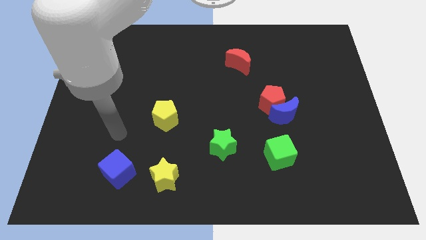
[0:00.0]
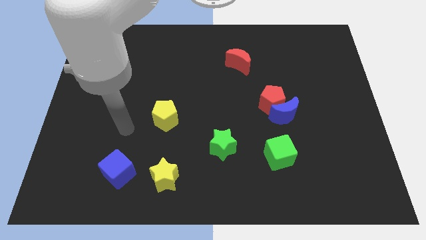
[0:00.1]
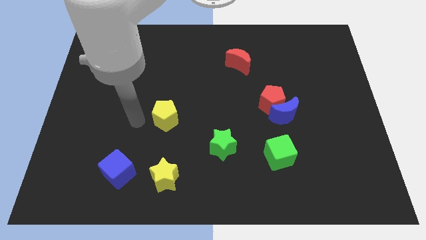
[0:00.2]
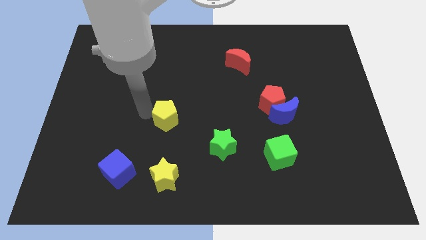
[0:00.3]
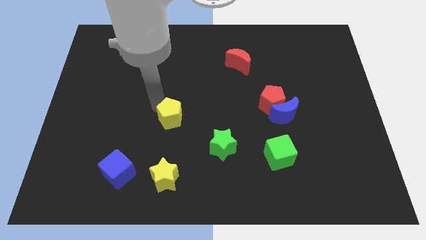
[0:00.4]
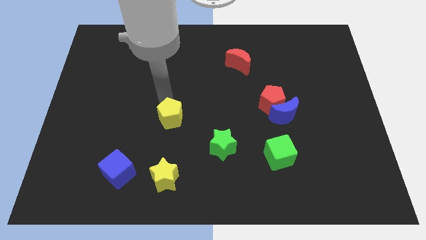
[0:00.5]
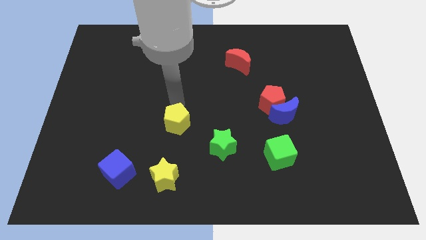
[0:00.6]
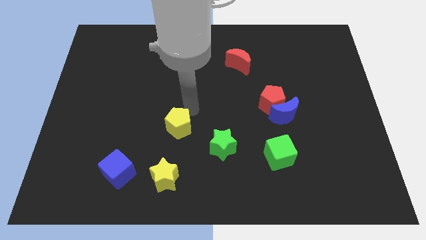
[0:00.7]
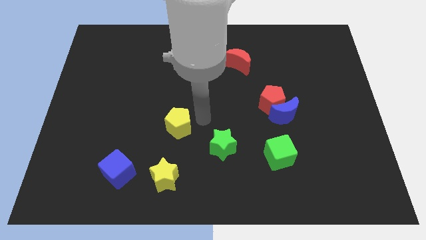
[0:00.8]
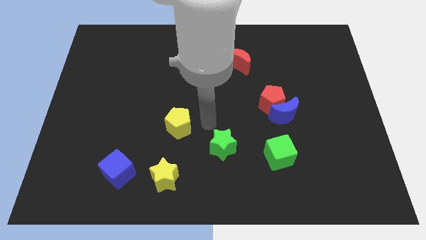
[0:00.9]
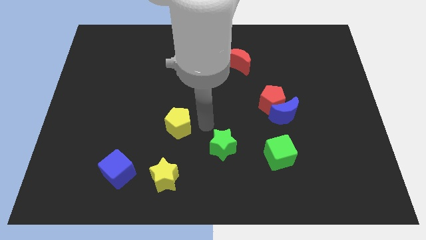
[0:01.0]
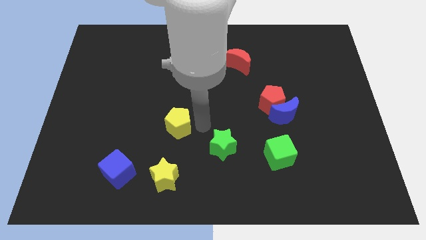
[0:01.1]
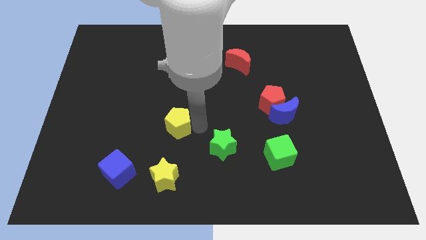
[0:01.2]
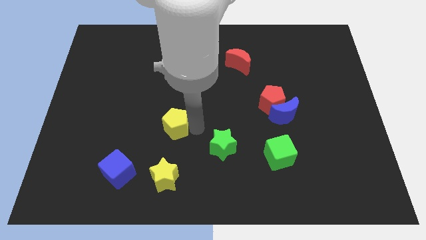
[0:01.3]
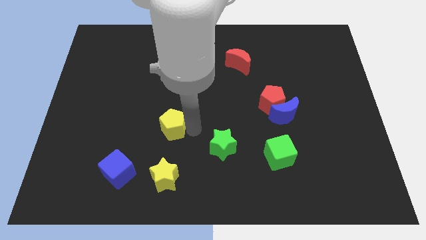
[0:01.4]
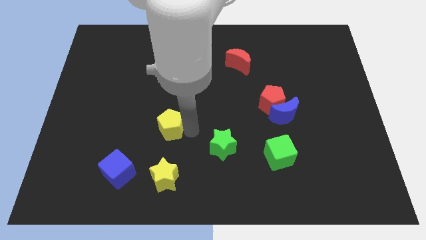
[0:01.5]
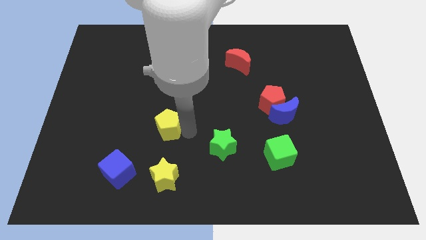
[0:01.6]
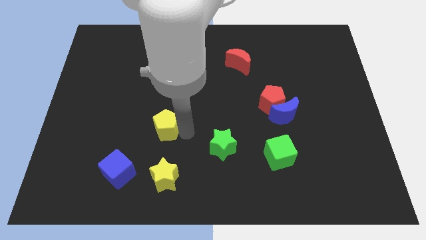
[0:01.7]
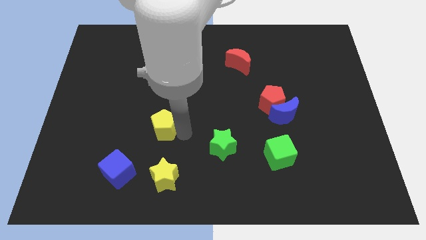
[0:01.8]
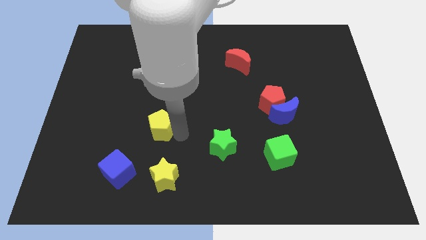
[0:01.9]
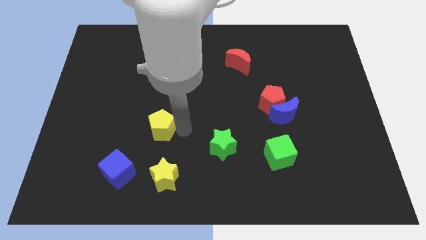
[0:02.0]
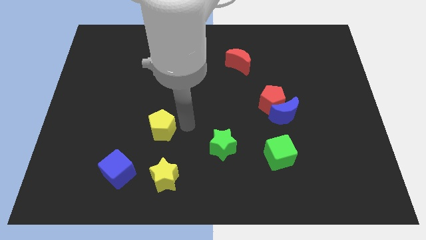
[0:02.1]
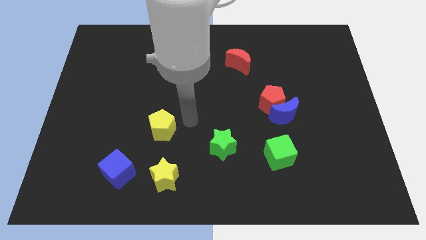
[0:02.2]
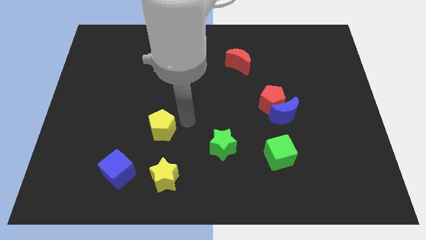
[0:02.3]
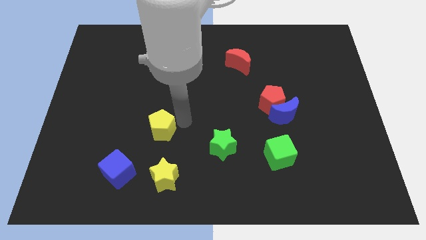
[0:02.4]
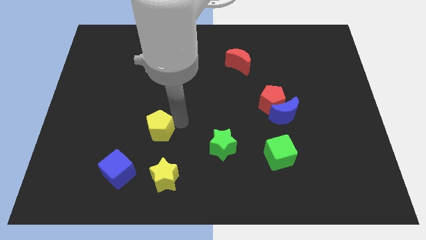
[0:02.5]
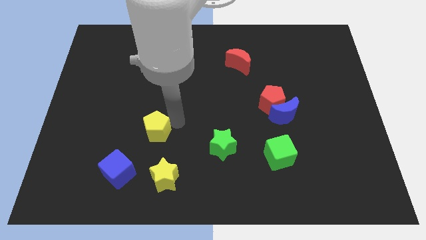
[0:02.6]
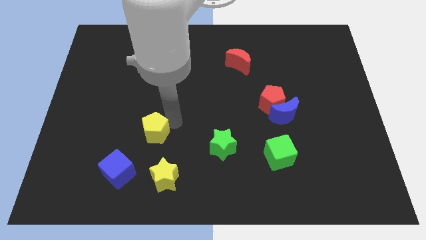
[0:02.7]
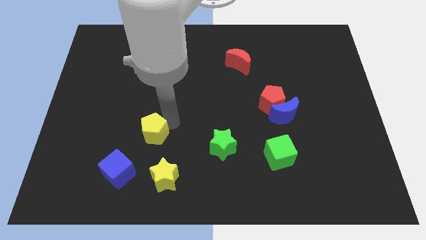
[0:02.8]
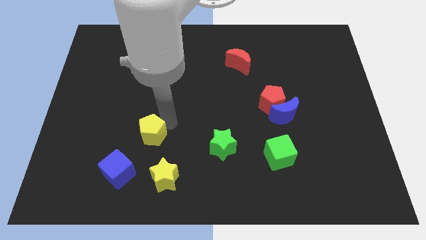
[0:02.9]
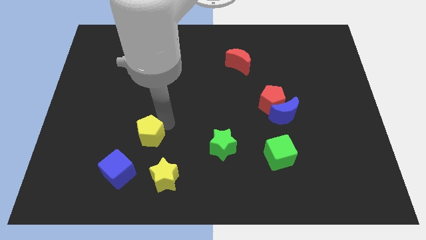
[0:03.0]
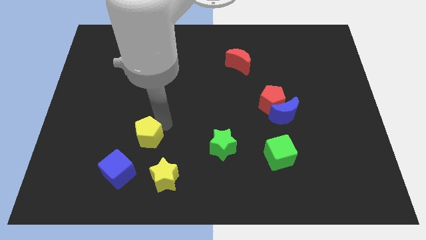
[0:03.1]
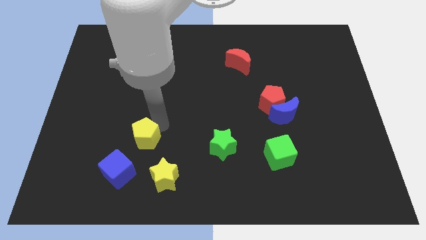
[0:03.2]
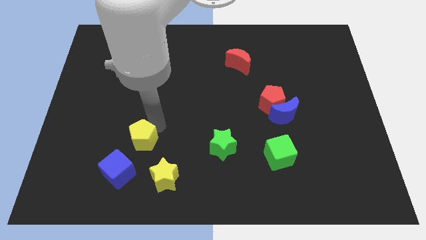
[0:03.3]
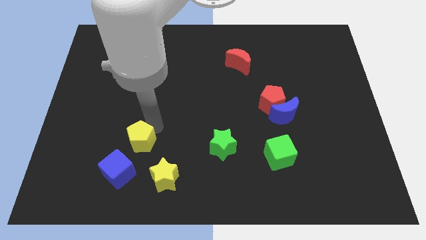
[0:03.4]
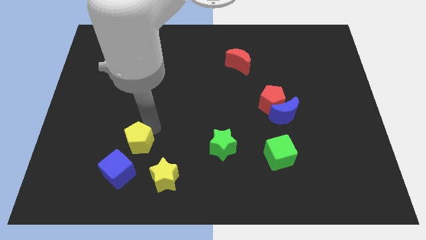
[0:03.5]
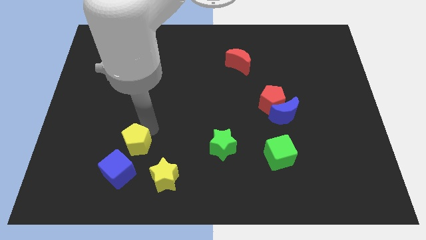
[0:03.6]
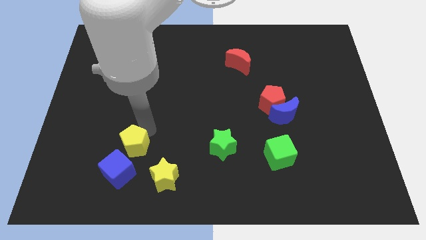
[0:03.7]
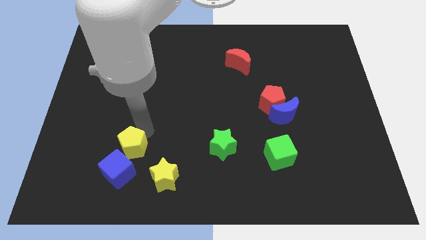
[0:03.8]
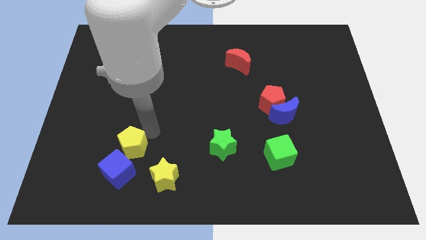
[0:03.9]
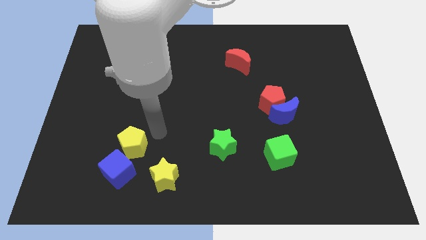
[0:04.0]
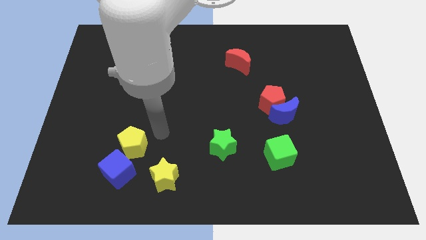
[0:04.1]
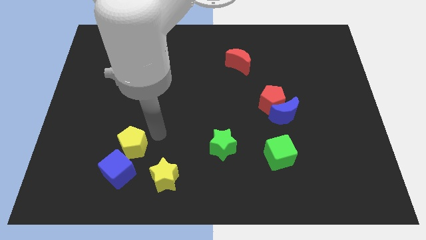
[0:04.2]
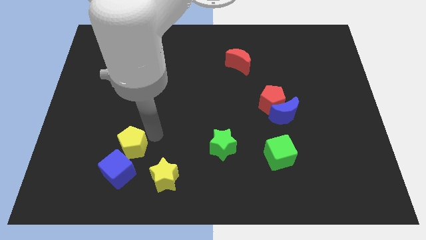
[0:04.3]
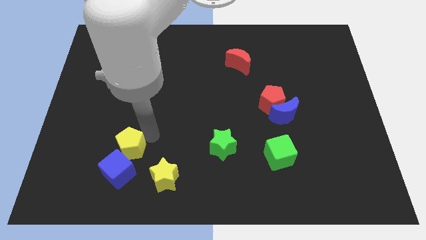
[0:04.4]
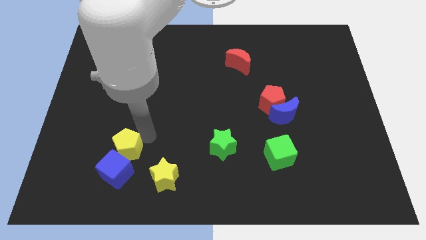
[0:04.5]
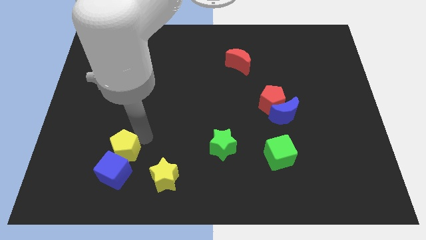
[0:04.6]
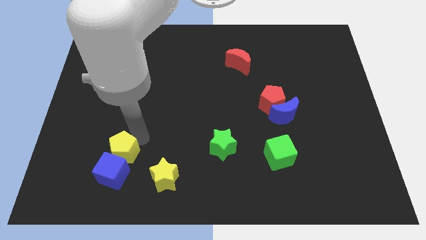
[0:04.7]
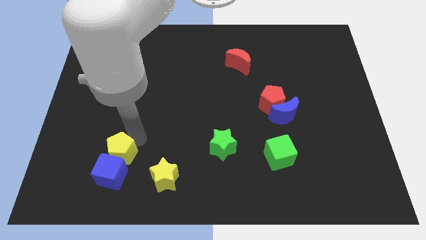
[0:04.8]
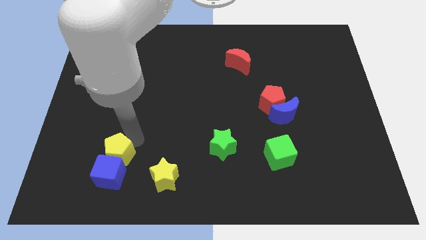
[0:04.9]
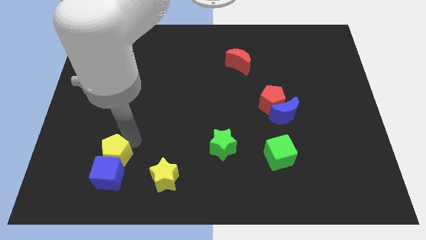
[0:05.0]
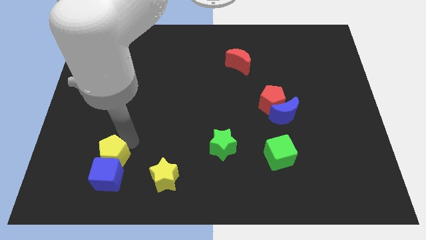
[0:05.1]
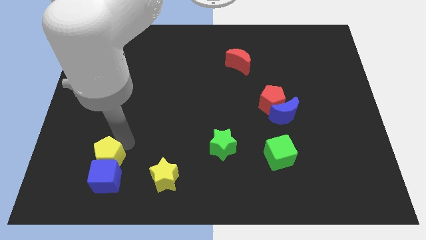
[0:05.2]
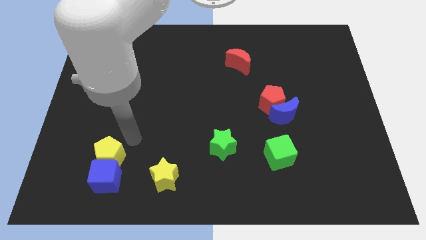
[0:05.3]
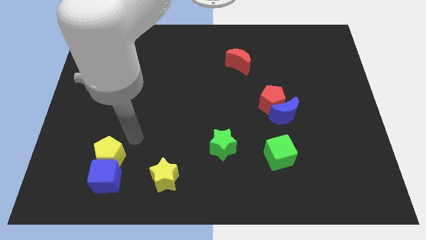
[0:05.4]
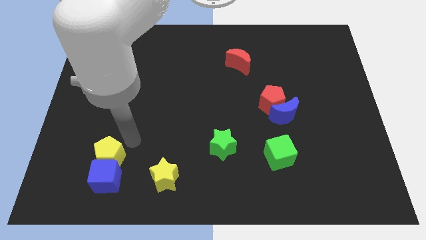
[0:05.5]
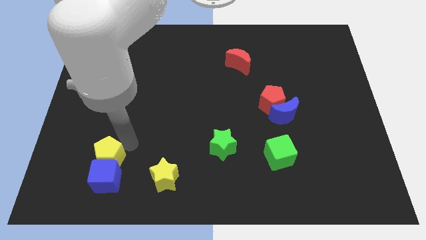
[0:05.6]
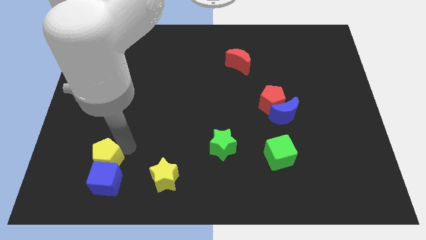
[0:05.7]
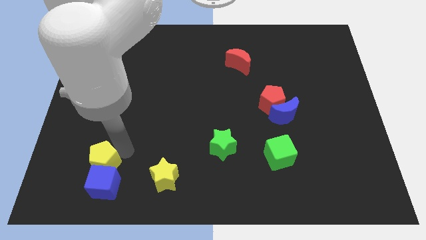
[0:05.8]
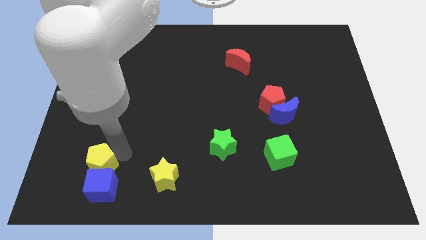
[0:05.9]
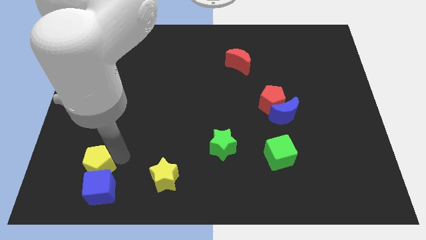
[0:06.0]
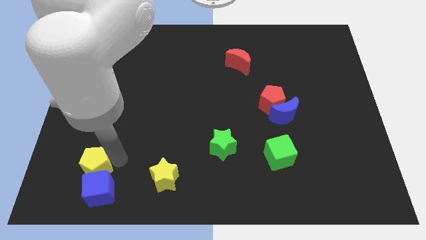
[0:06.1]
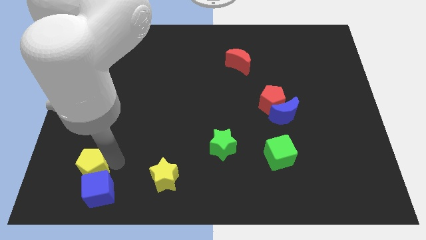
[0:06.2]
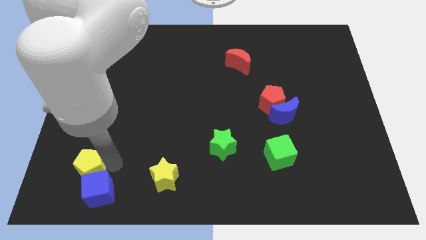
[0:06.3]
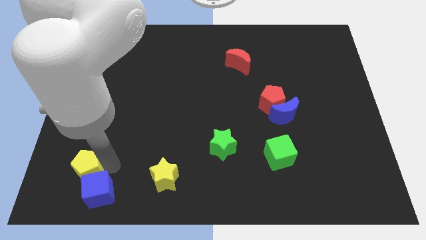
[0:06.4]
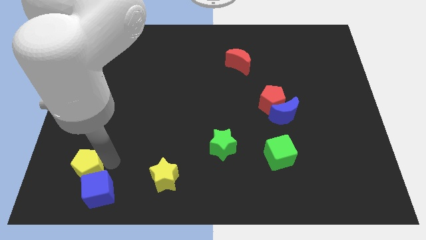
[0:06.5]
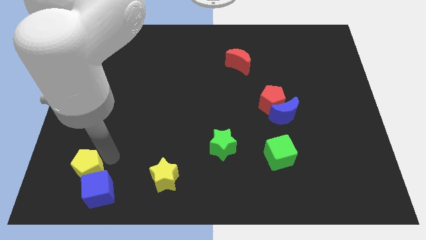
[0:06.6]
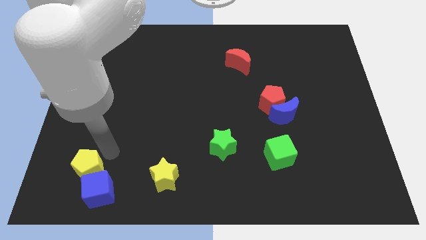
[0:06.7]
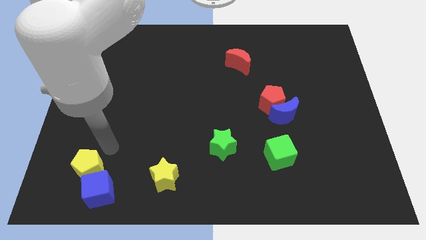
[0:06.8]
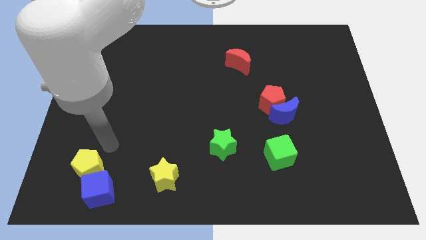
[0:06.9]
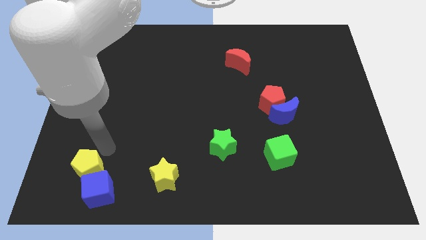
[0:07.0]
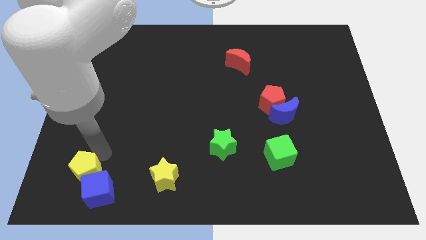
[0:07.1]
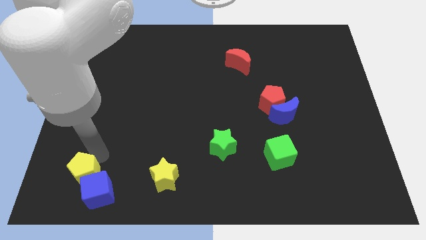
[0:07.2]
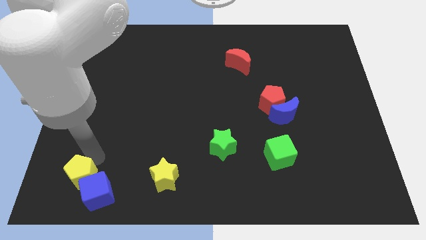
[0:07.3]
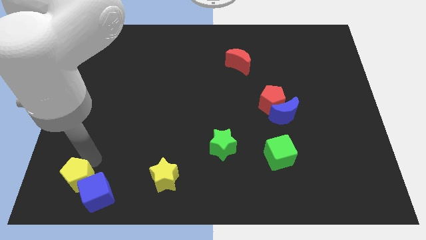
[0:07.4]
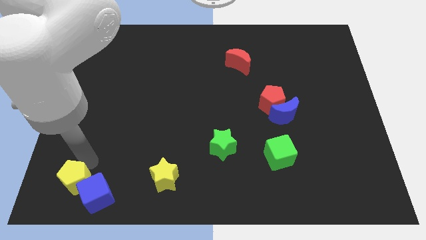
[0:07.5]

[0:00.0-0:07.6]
move the yellow pentagon to the bottom left of the board
